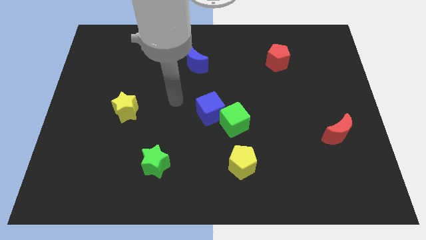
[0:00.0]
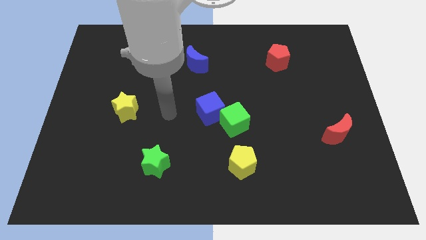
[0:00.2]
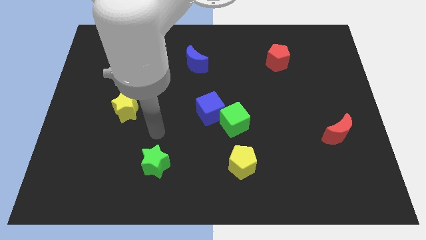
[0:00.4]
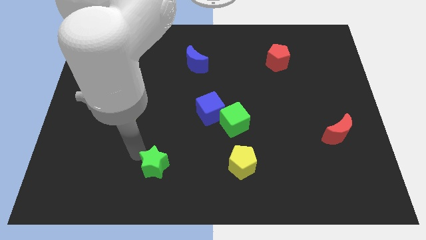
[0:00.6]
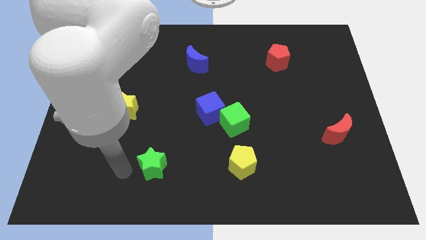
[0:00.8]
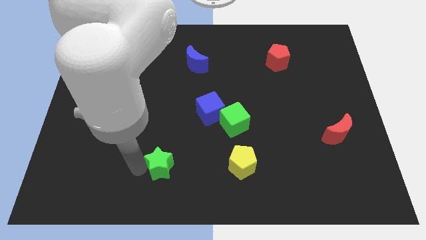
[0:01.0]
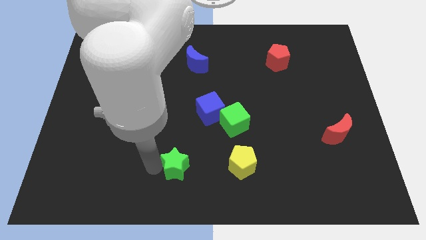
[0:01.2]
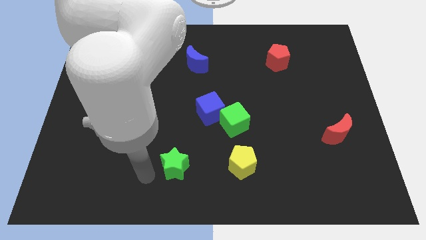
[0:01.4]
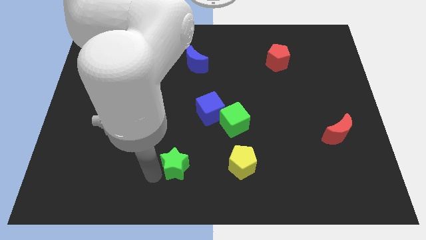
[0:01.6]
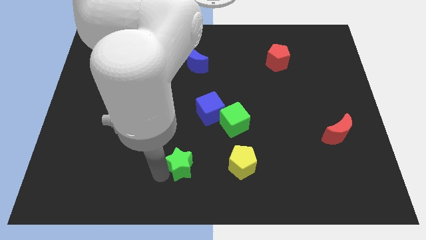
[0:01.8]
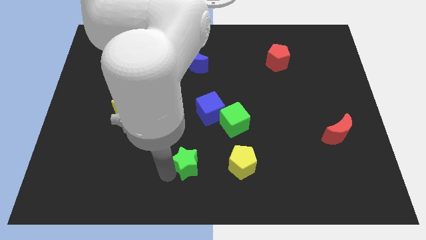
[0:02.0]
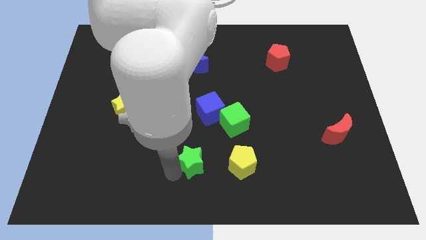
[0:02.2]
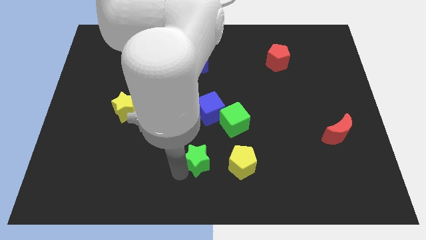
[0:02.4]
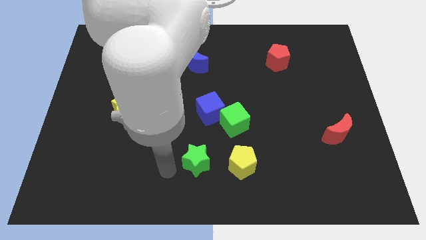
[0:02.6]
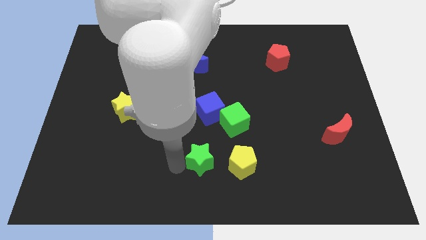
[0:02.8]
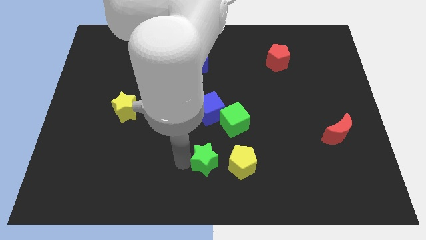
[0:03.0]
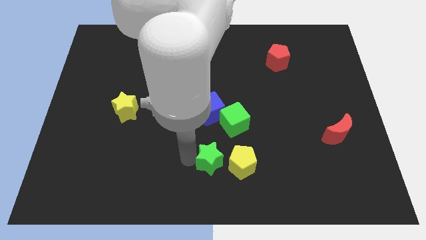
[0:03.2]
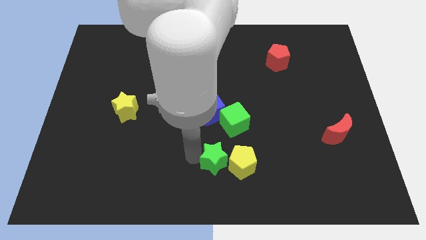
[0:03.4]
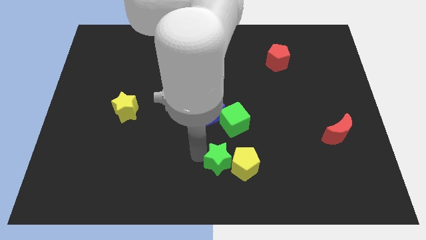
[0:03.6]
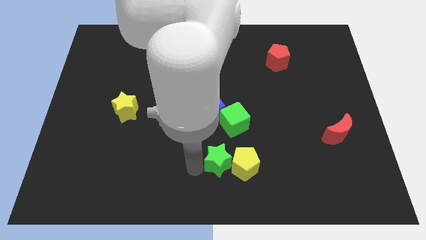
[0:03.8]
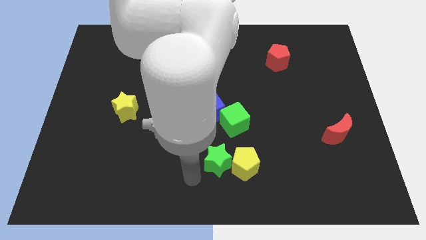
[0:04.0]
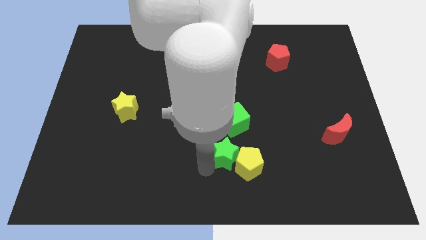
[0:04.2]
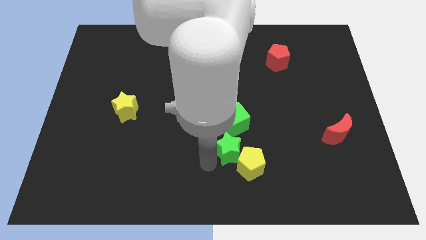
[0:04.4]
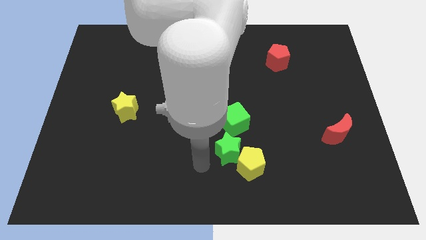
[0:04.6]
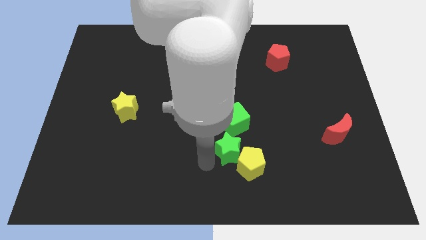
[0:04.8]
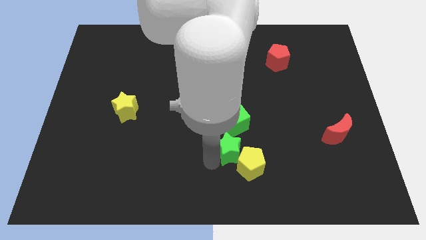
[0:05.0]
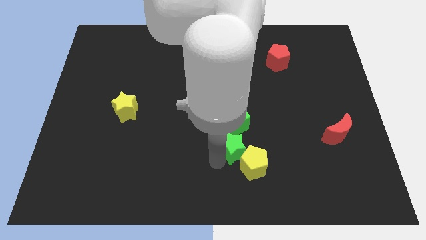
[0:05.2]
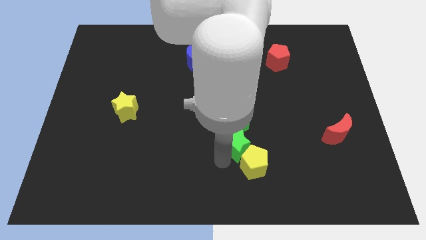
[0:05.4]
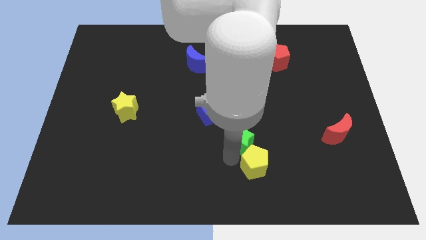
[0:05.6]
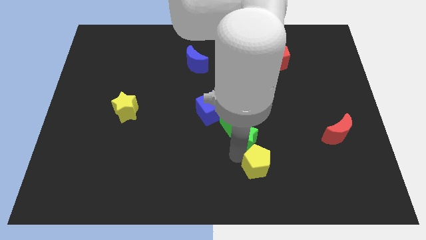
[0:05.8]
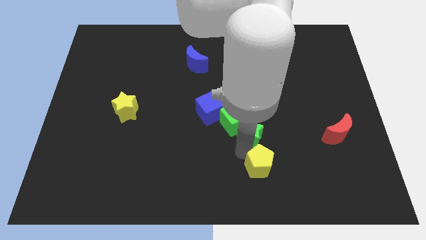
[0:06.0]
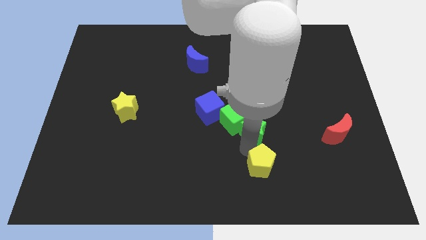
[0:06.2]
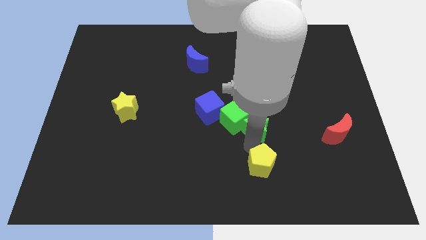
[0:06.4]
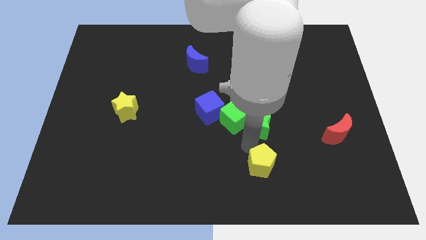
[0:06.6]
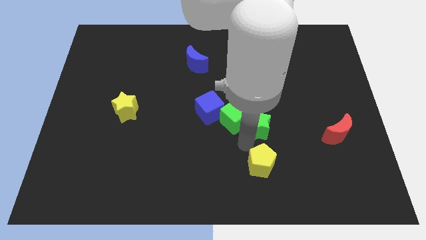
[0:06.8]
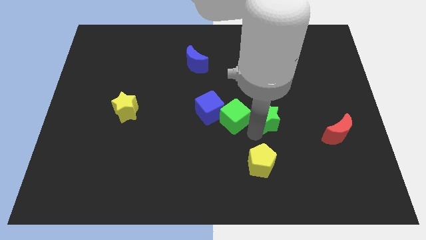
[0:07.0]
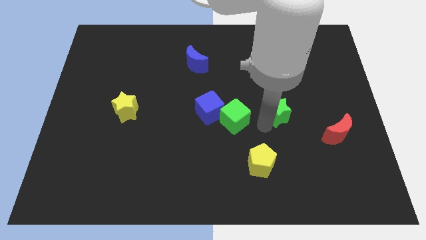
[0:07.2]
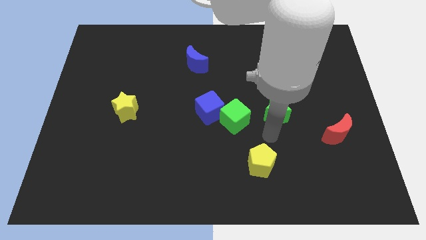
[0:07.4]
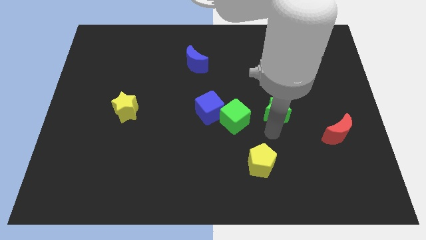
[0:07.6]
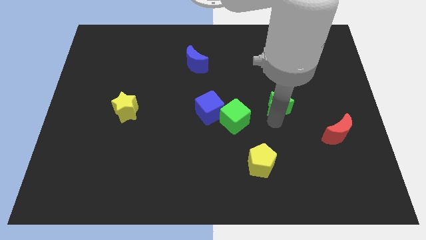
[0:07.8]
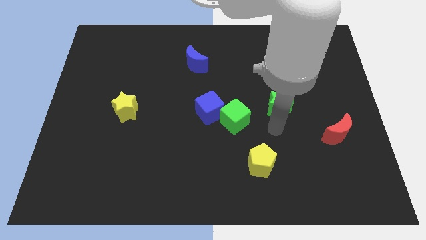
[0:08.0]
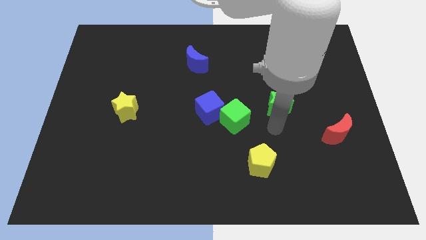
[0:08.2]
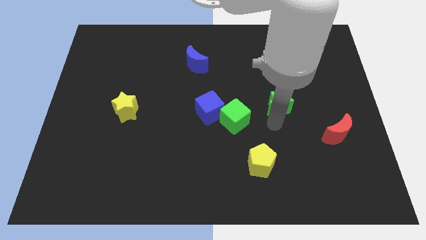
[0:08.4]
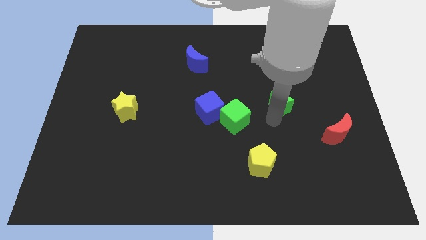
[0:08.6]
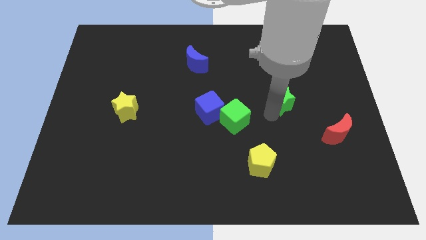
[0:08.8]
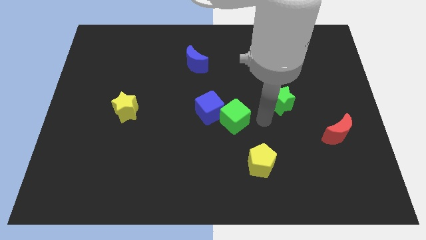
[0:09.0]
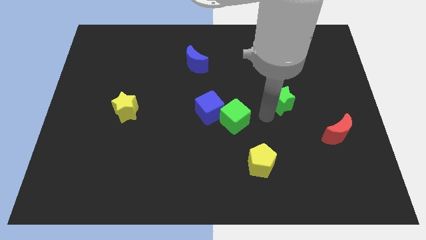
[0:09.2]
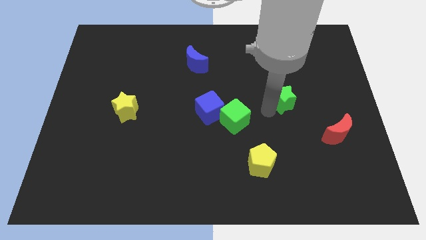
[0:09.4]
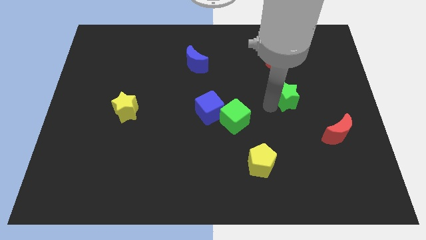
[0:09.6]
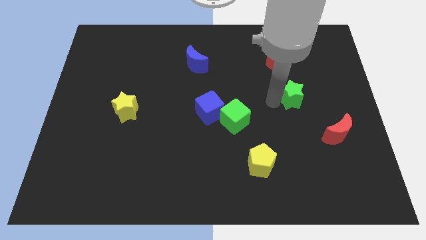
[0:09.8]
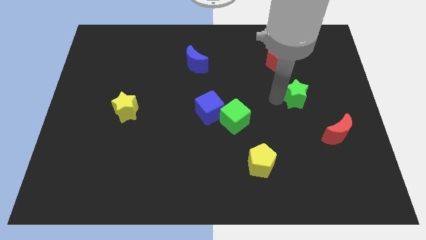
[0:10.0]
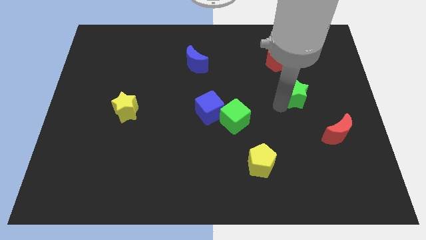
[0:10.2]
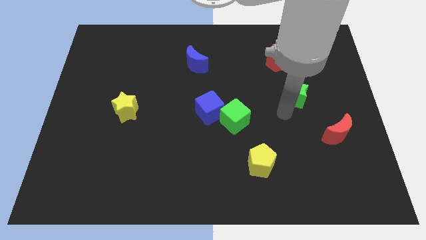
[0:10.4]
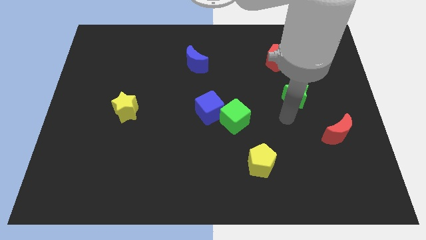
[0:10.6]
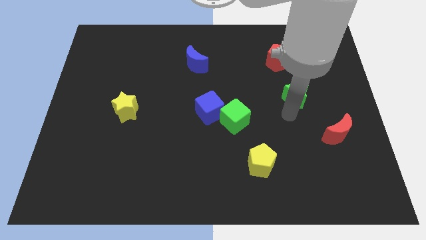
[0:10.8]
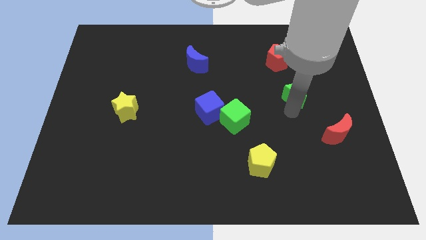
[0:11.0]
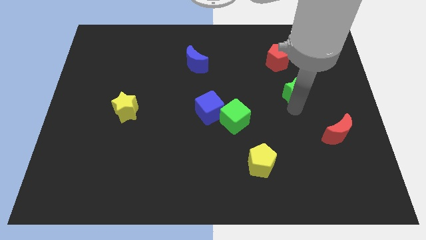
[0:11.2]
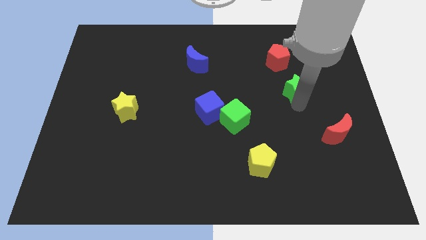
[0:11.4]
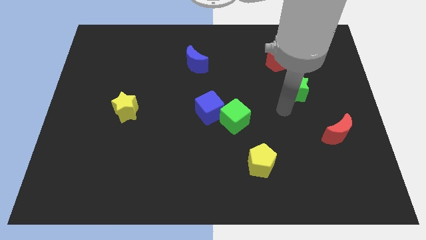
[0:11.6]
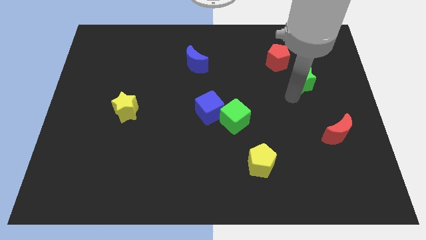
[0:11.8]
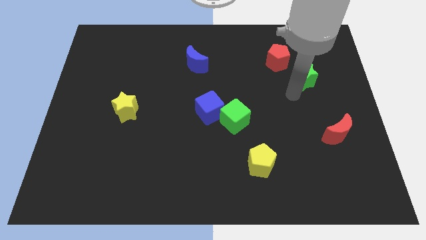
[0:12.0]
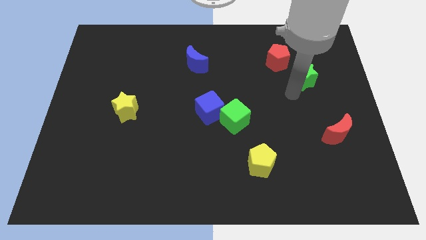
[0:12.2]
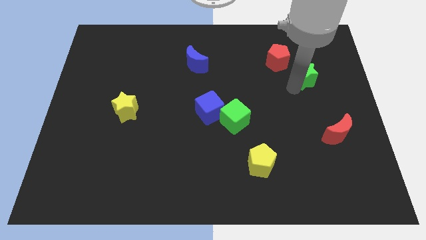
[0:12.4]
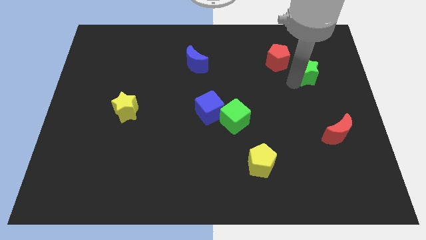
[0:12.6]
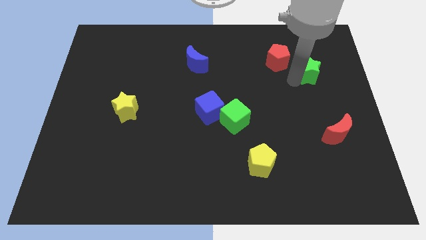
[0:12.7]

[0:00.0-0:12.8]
move the green star to the right of the red pentagon
